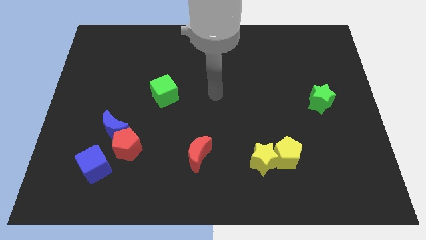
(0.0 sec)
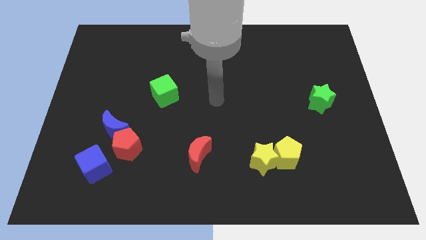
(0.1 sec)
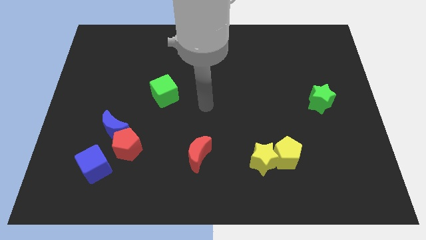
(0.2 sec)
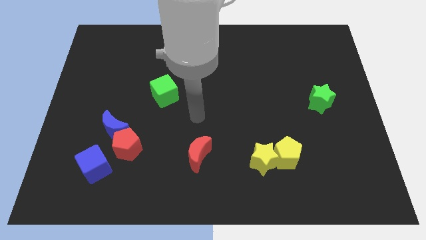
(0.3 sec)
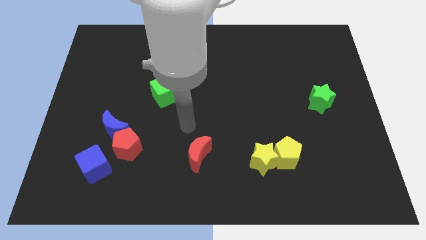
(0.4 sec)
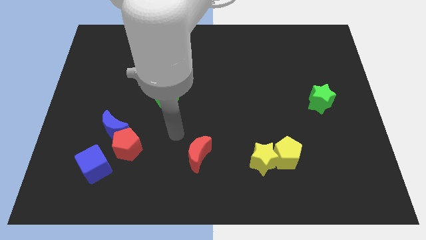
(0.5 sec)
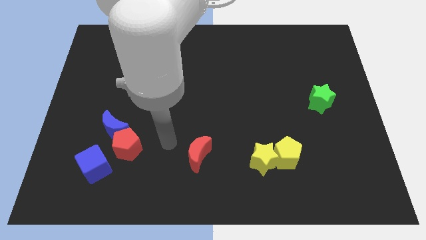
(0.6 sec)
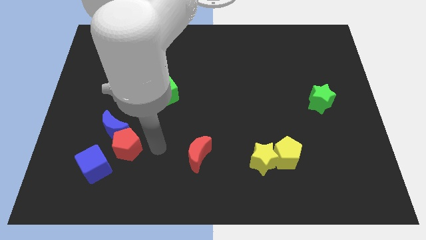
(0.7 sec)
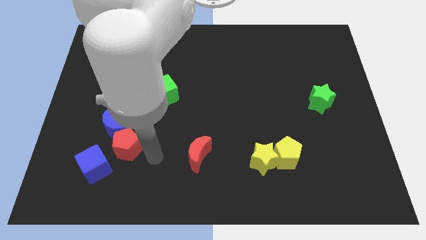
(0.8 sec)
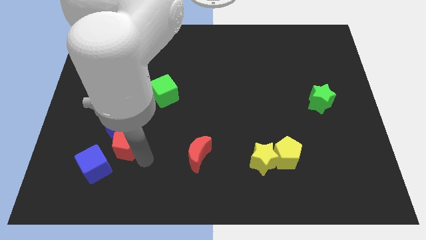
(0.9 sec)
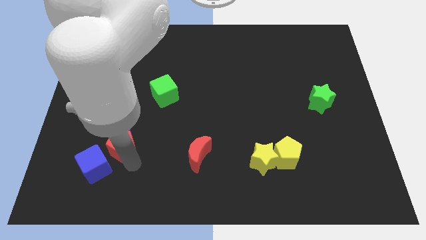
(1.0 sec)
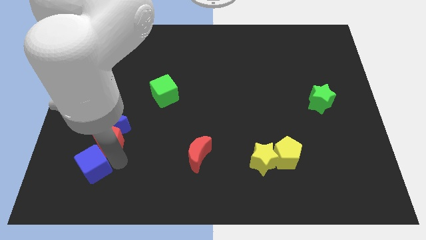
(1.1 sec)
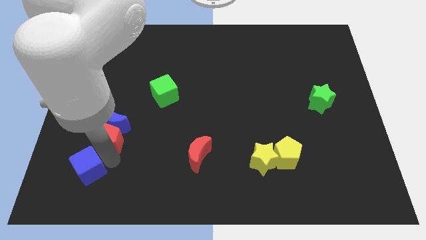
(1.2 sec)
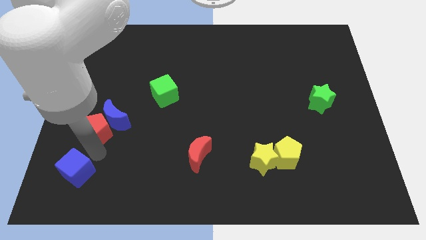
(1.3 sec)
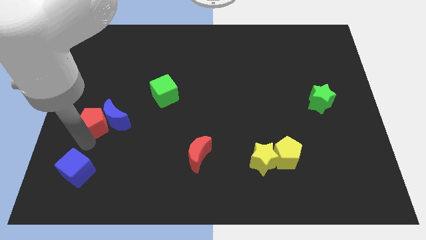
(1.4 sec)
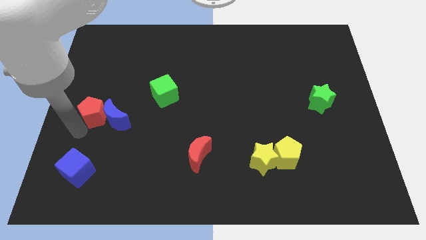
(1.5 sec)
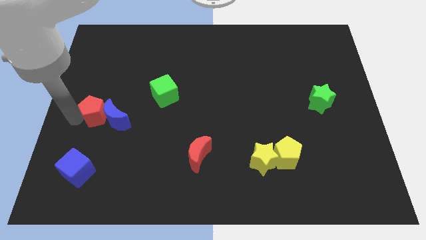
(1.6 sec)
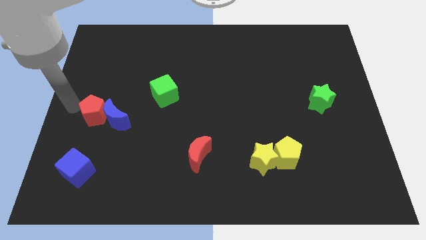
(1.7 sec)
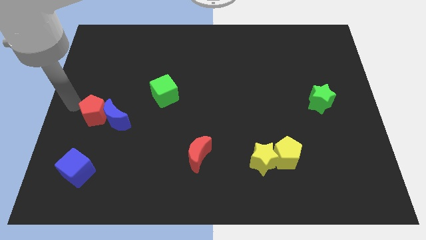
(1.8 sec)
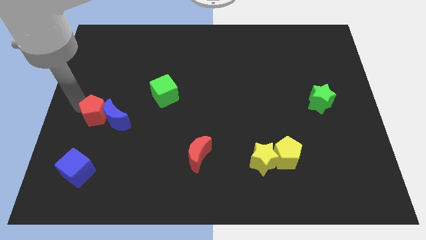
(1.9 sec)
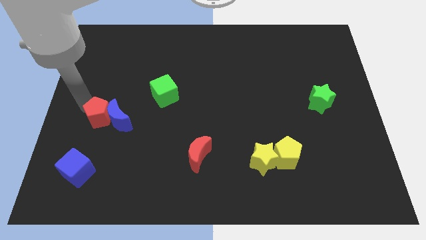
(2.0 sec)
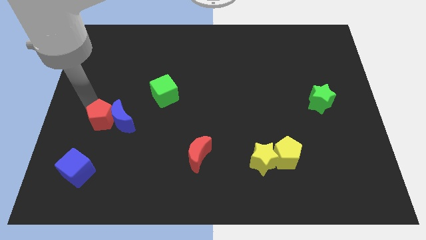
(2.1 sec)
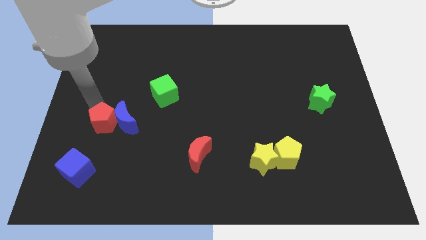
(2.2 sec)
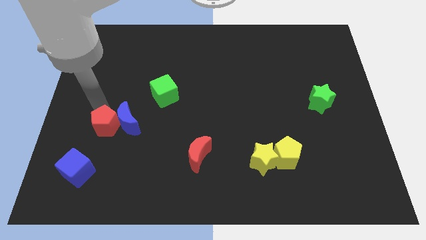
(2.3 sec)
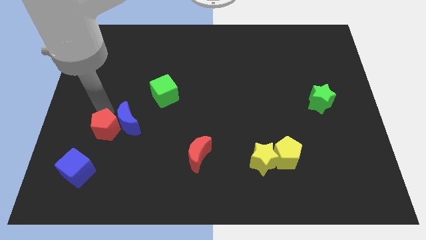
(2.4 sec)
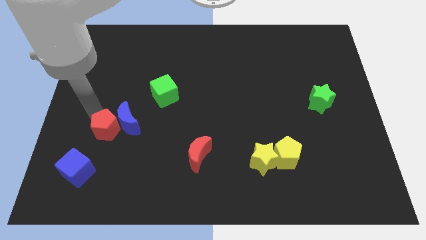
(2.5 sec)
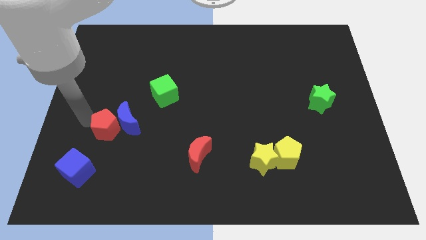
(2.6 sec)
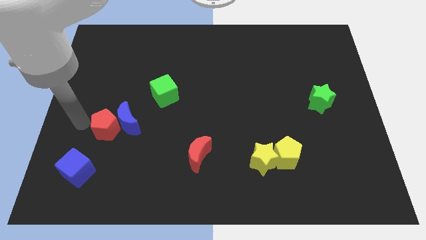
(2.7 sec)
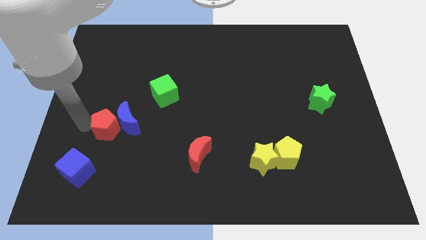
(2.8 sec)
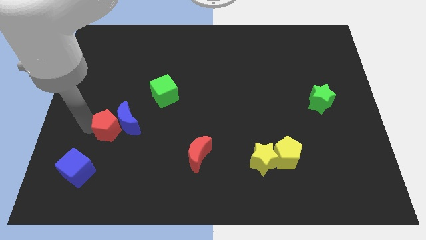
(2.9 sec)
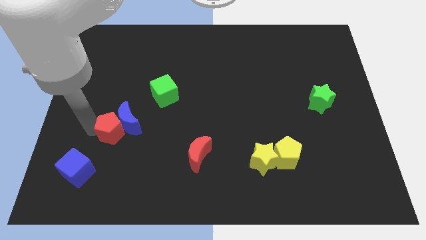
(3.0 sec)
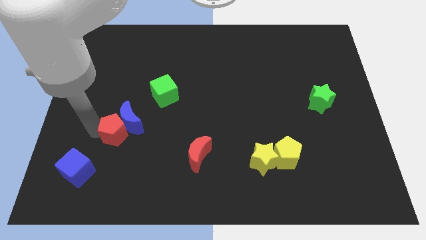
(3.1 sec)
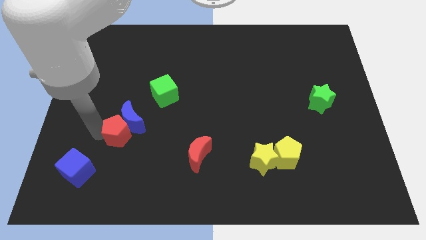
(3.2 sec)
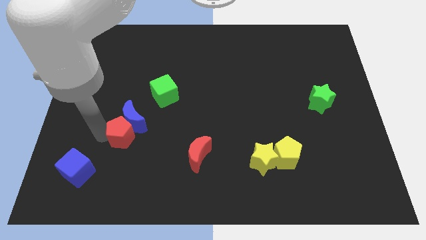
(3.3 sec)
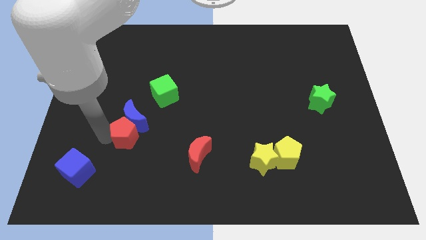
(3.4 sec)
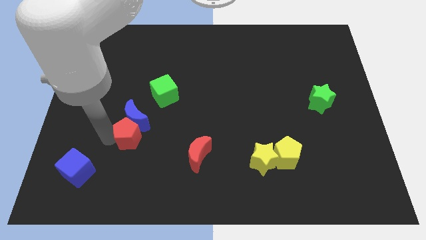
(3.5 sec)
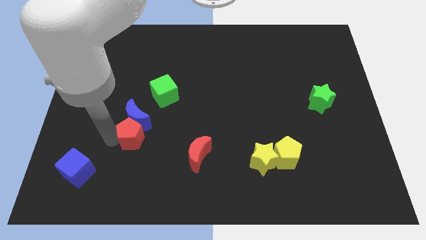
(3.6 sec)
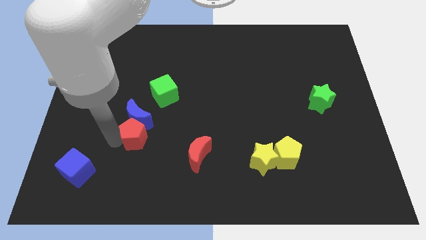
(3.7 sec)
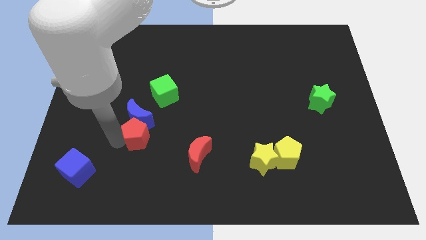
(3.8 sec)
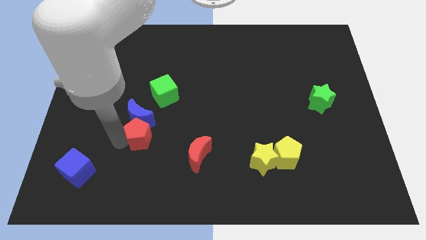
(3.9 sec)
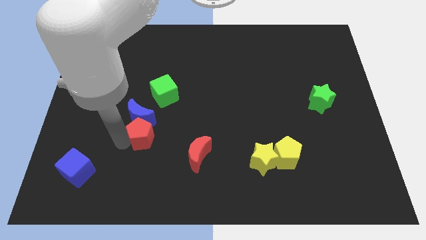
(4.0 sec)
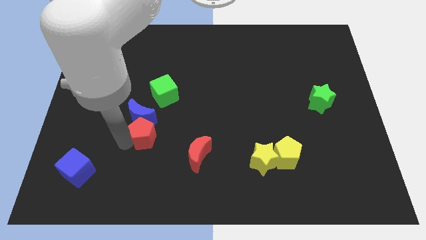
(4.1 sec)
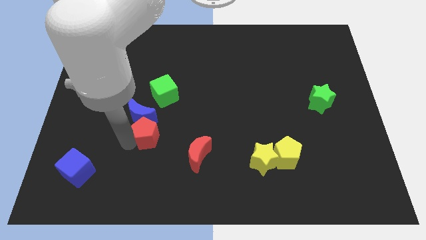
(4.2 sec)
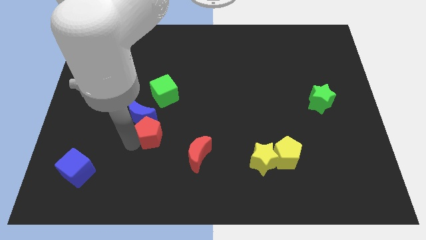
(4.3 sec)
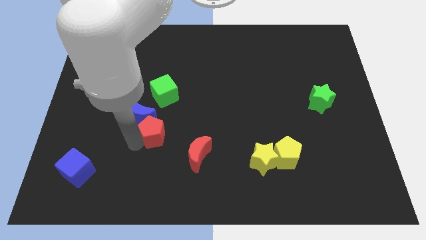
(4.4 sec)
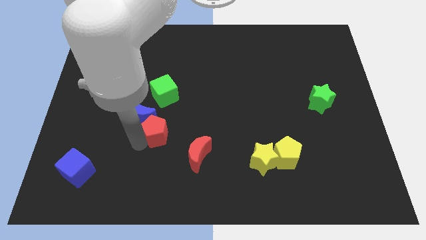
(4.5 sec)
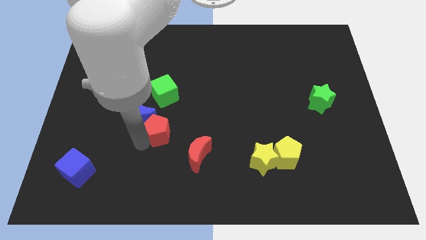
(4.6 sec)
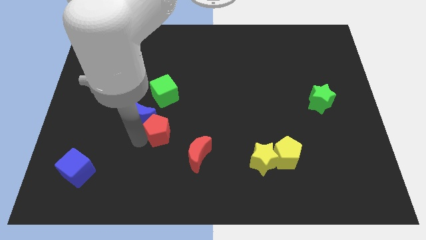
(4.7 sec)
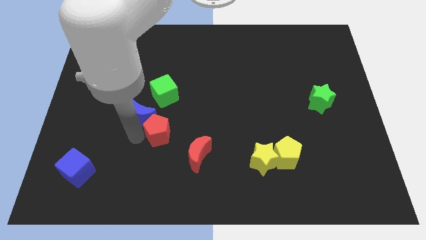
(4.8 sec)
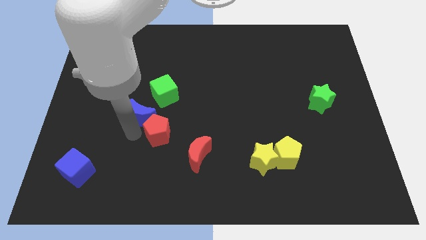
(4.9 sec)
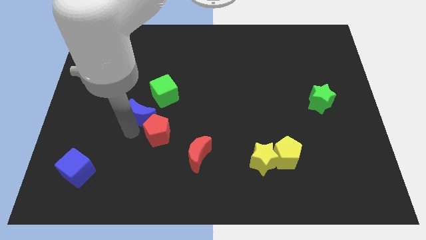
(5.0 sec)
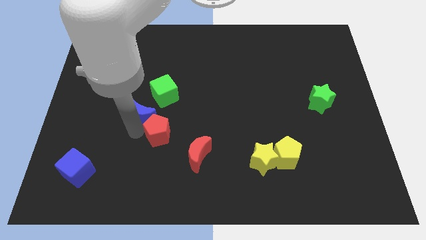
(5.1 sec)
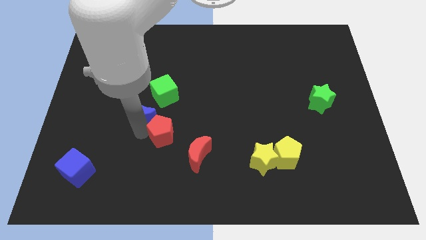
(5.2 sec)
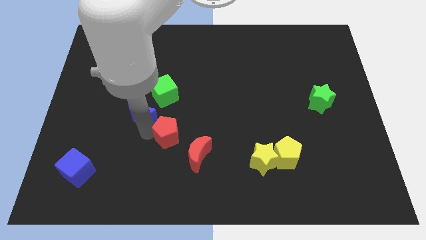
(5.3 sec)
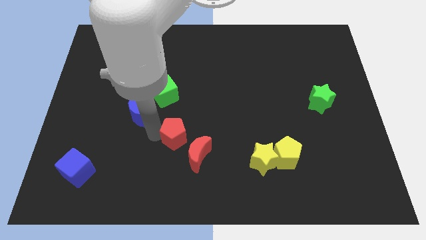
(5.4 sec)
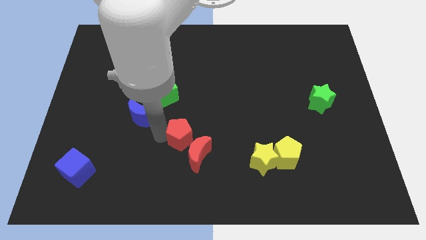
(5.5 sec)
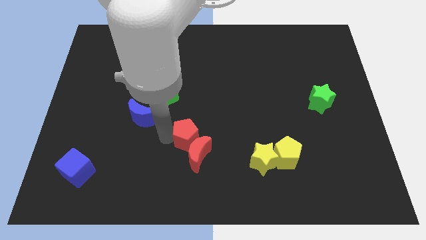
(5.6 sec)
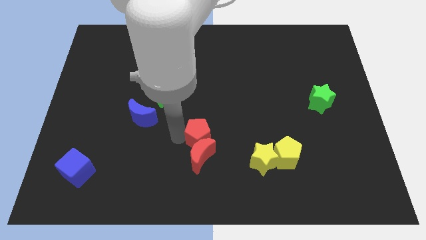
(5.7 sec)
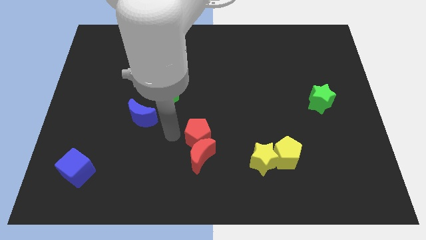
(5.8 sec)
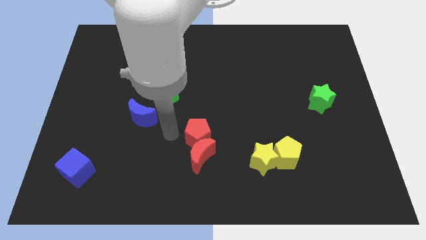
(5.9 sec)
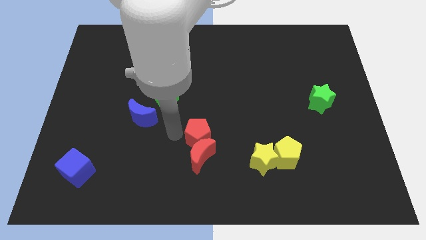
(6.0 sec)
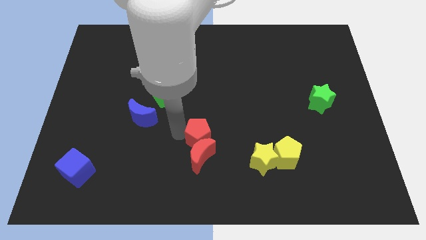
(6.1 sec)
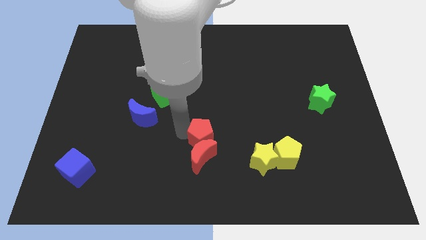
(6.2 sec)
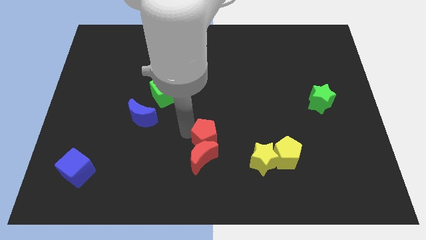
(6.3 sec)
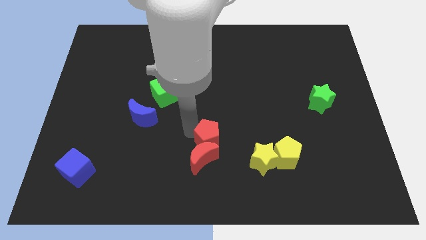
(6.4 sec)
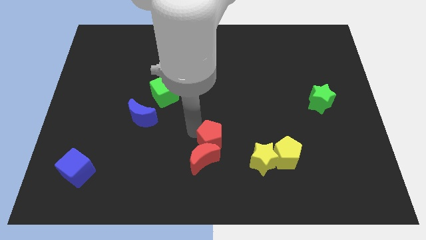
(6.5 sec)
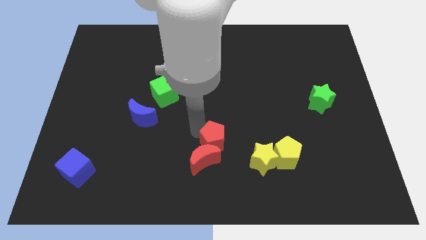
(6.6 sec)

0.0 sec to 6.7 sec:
push the red pentagon to the top left side of the yellow star
